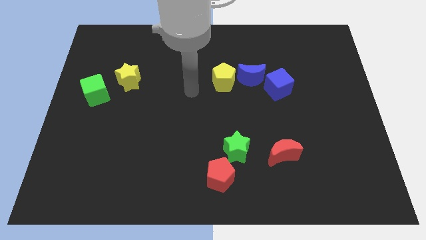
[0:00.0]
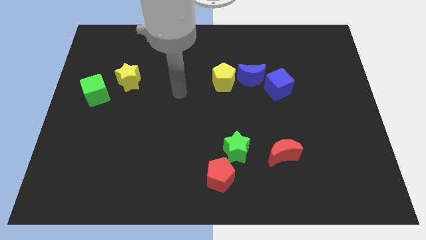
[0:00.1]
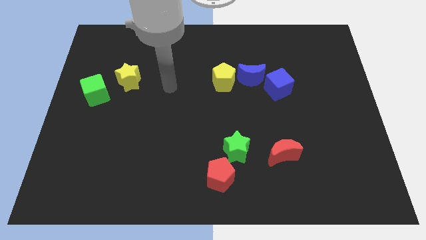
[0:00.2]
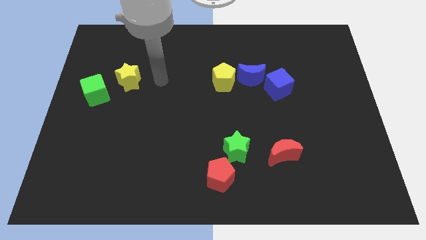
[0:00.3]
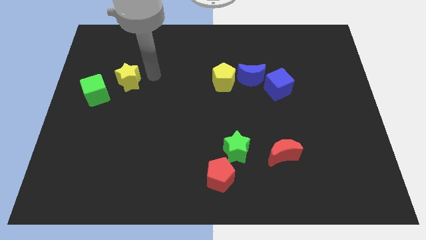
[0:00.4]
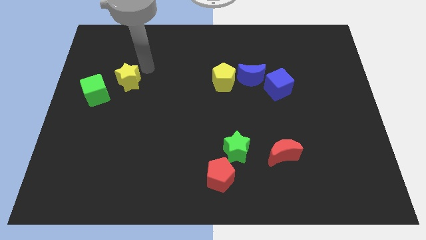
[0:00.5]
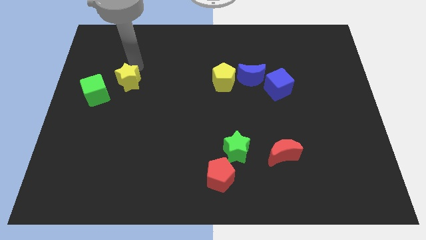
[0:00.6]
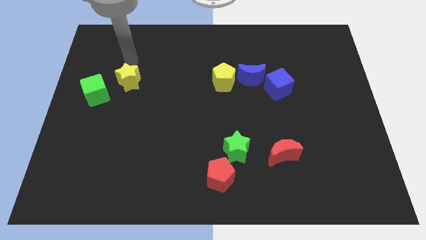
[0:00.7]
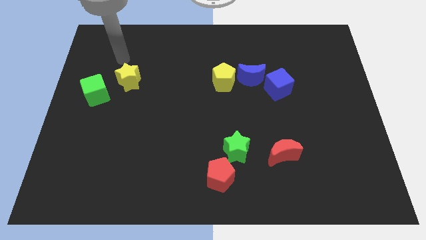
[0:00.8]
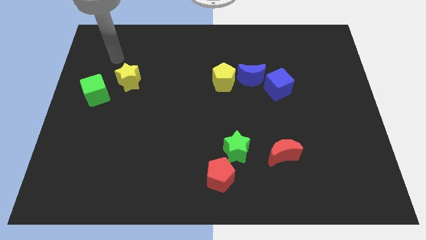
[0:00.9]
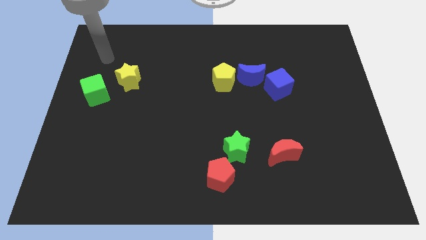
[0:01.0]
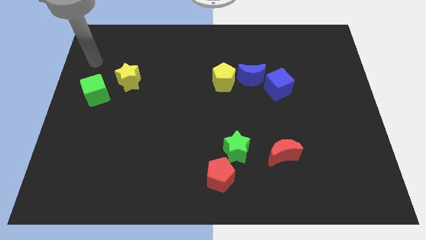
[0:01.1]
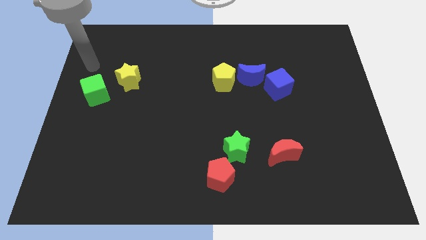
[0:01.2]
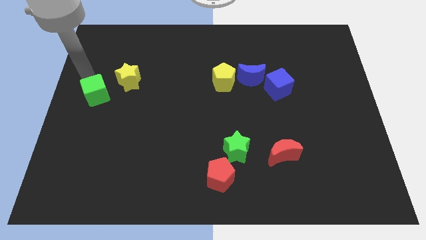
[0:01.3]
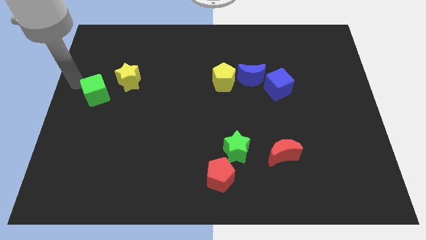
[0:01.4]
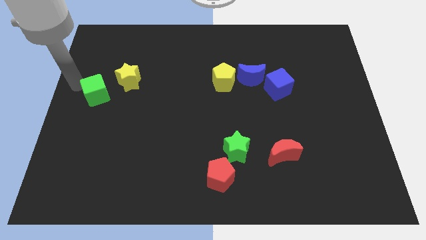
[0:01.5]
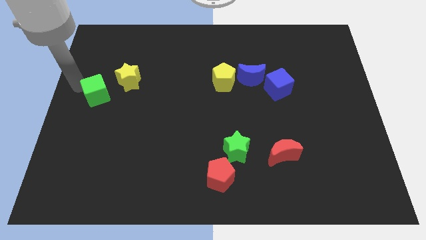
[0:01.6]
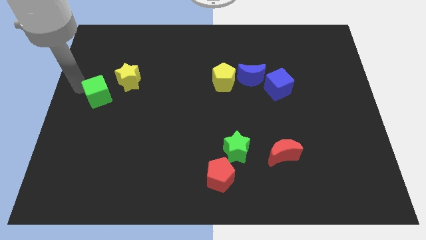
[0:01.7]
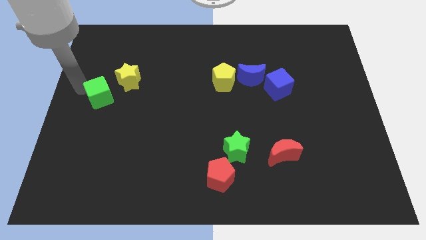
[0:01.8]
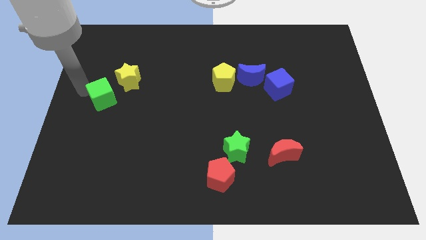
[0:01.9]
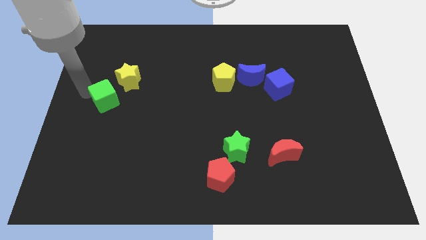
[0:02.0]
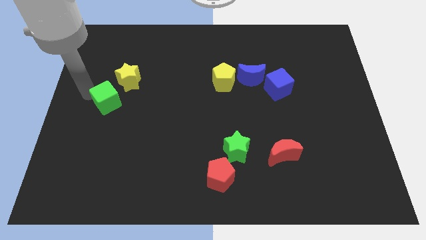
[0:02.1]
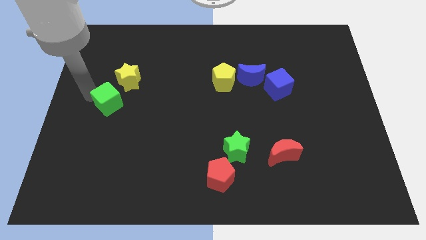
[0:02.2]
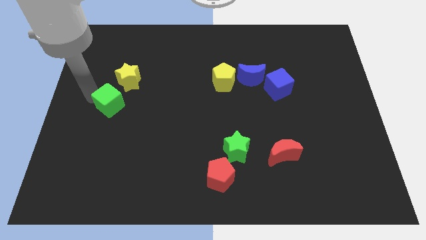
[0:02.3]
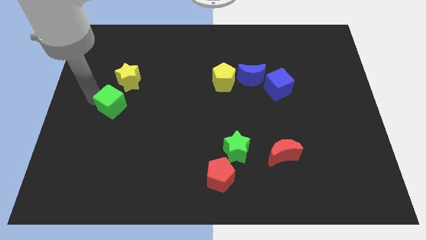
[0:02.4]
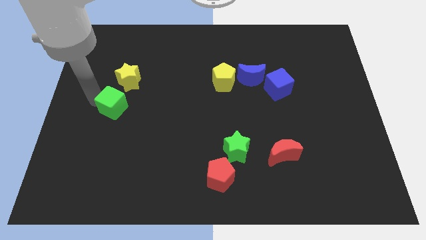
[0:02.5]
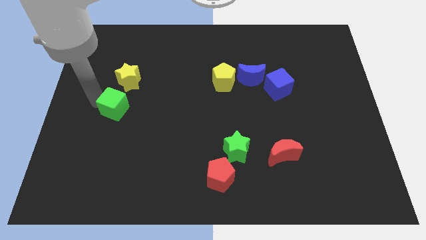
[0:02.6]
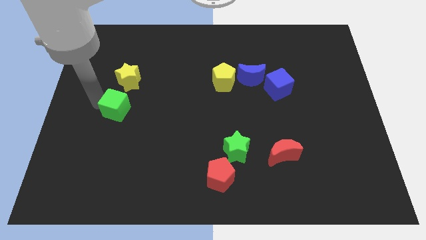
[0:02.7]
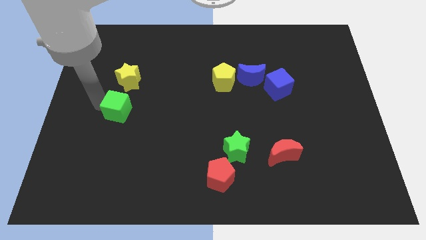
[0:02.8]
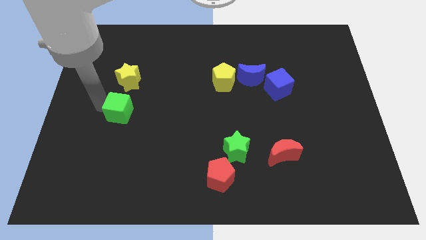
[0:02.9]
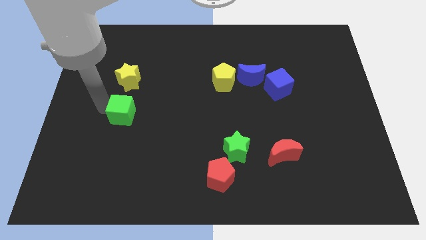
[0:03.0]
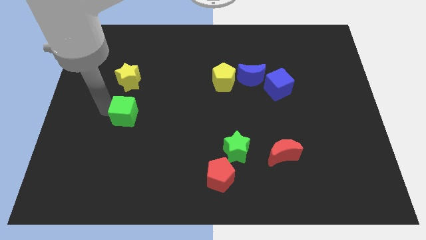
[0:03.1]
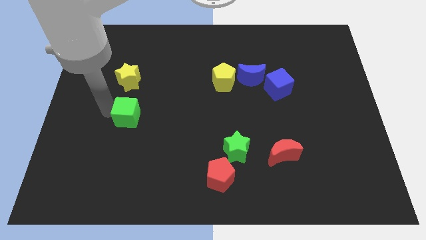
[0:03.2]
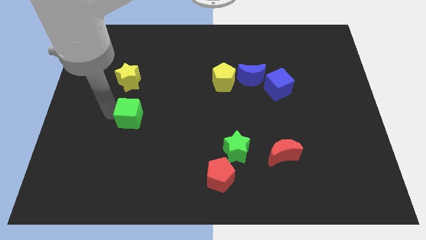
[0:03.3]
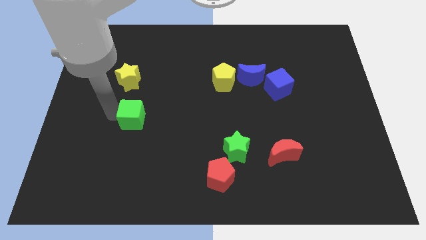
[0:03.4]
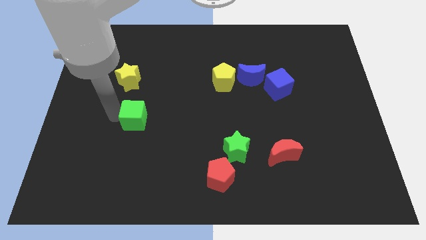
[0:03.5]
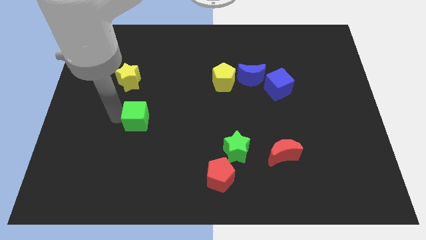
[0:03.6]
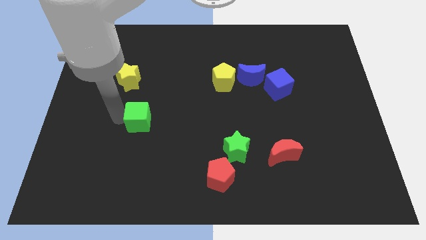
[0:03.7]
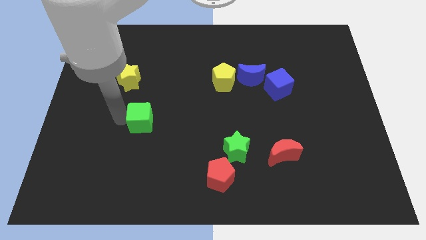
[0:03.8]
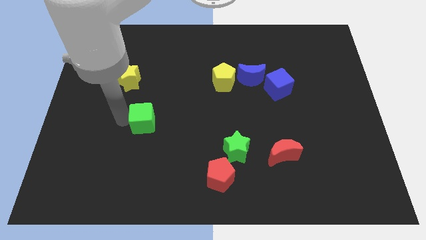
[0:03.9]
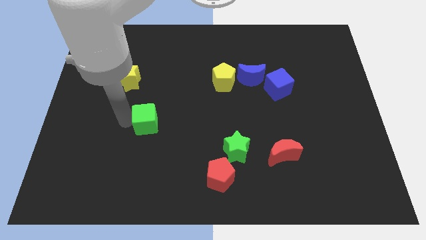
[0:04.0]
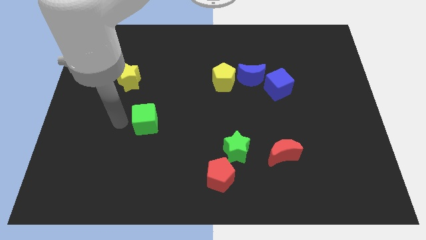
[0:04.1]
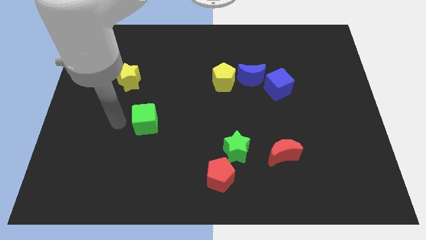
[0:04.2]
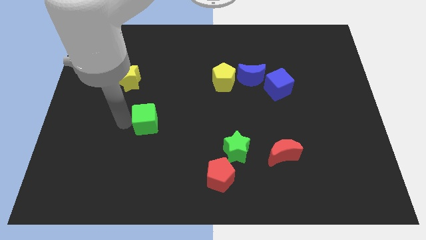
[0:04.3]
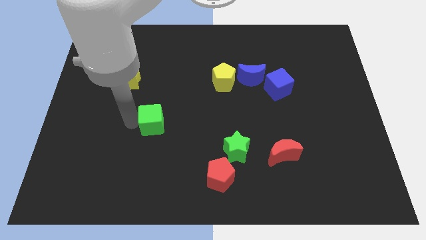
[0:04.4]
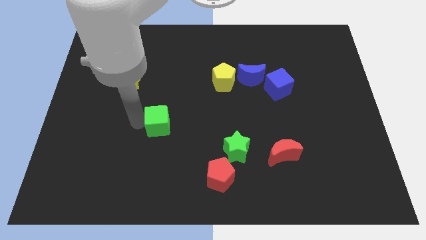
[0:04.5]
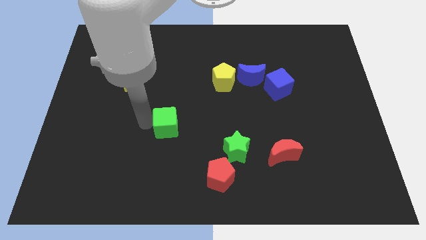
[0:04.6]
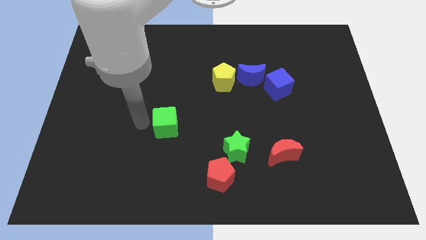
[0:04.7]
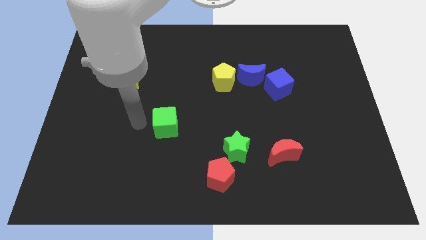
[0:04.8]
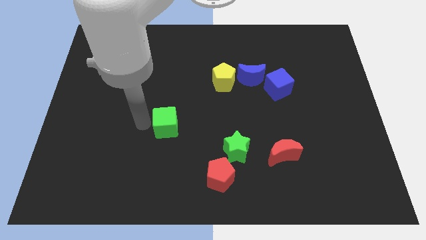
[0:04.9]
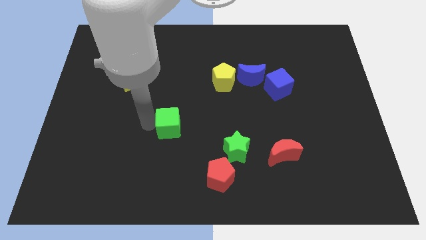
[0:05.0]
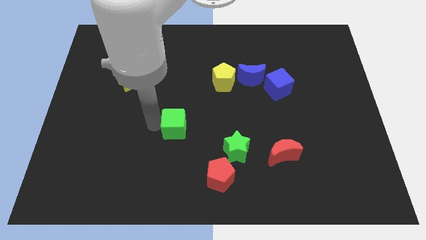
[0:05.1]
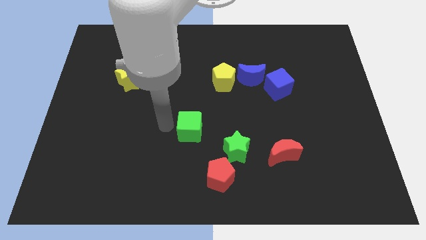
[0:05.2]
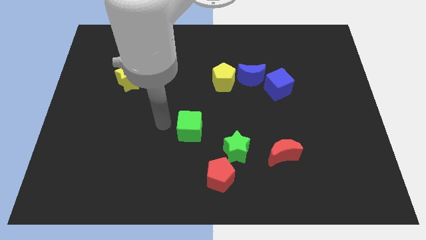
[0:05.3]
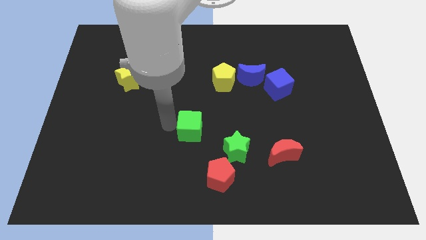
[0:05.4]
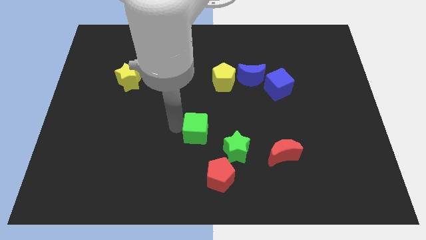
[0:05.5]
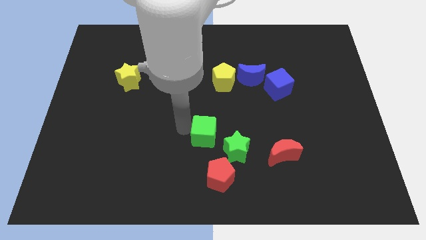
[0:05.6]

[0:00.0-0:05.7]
put the green cube above the red pentagon

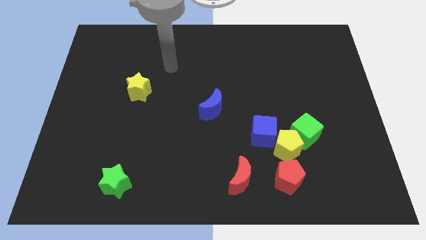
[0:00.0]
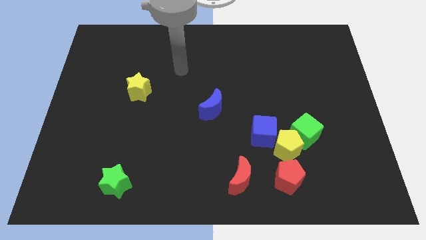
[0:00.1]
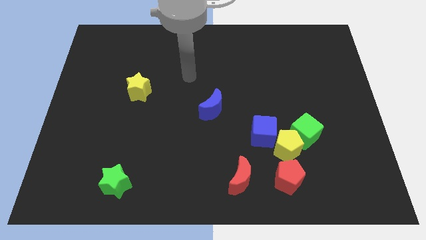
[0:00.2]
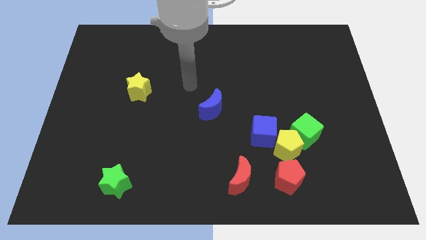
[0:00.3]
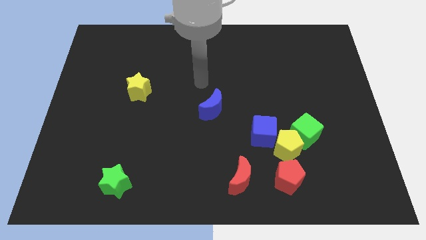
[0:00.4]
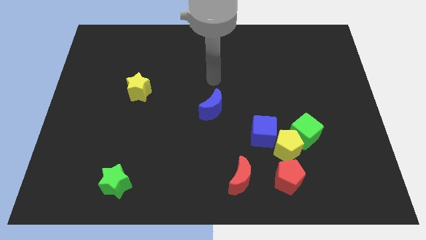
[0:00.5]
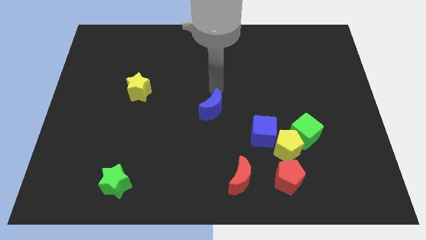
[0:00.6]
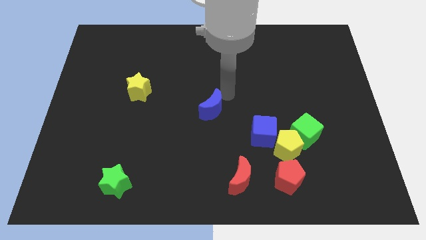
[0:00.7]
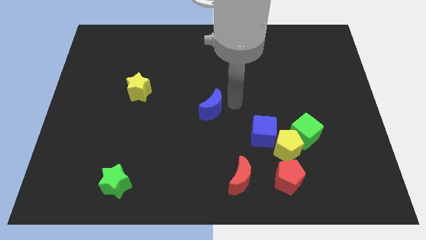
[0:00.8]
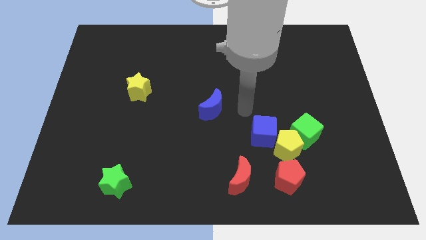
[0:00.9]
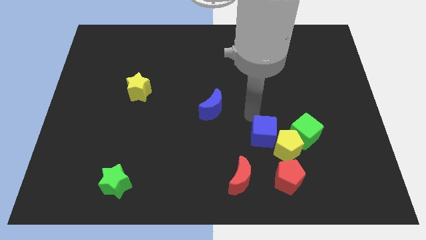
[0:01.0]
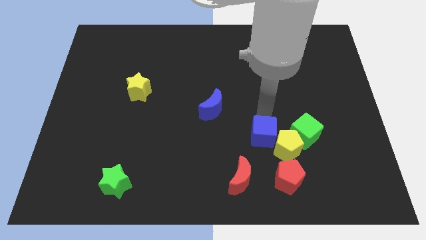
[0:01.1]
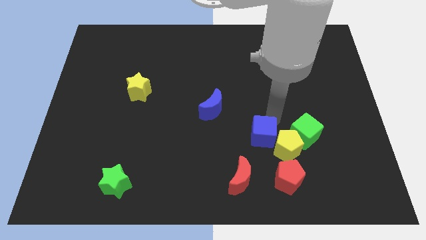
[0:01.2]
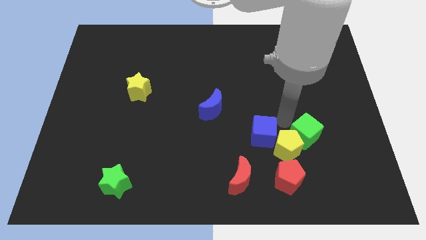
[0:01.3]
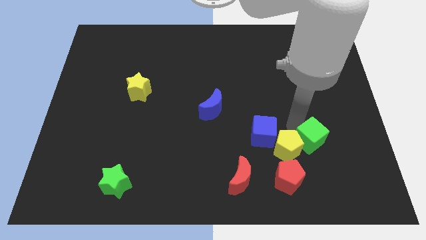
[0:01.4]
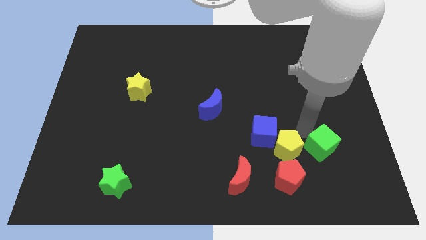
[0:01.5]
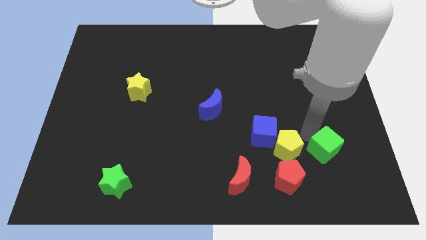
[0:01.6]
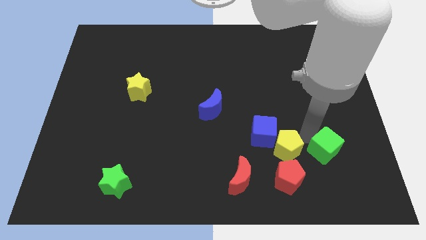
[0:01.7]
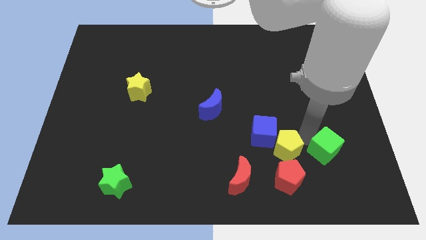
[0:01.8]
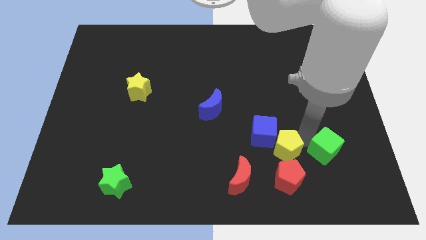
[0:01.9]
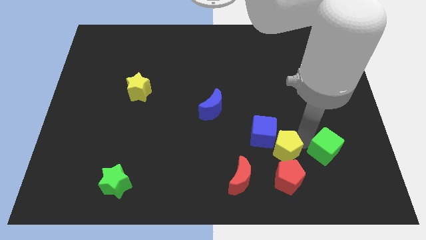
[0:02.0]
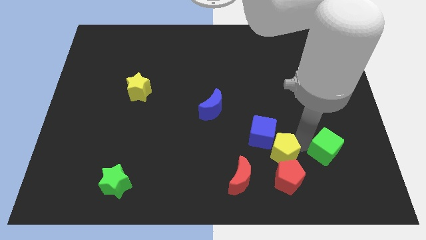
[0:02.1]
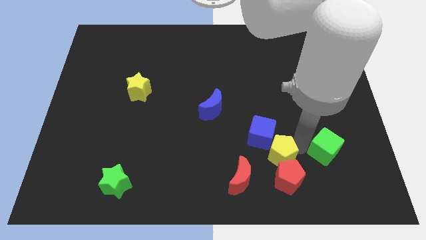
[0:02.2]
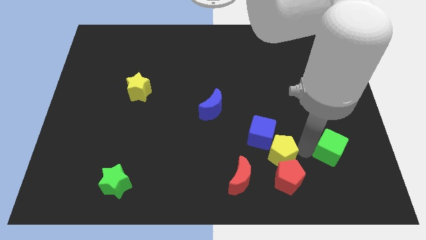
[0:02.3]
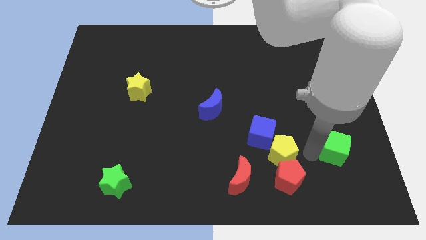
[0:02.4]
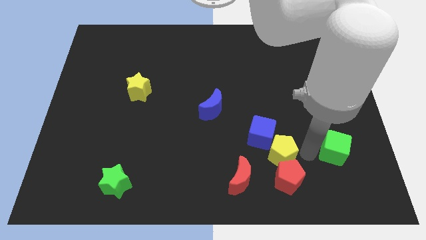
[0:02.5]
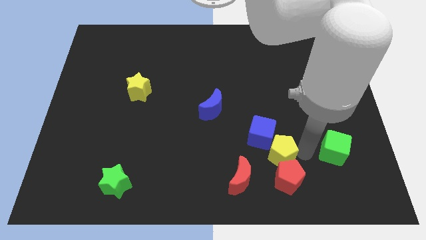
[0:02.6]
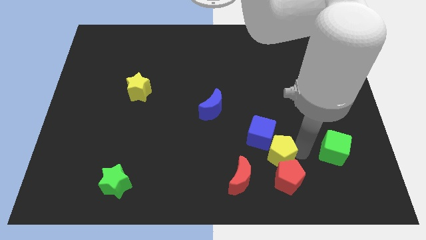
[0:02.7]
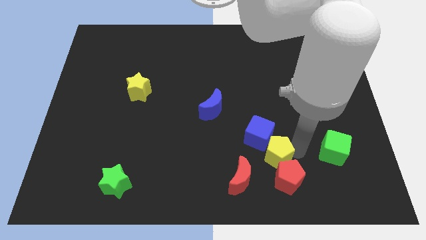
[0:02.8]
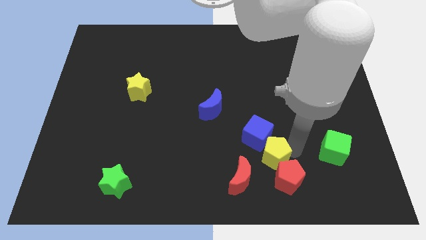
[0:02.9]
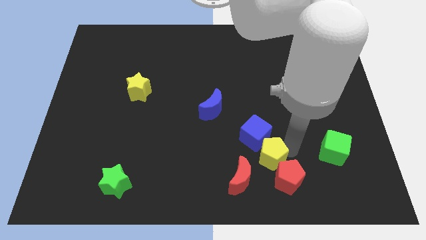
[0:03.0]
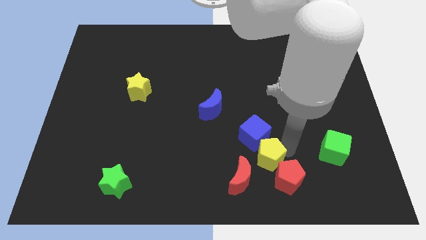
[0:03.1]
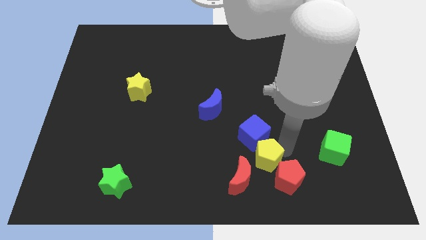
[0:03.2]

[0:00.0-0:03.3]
push the yellow pentagon to the left of the red pentagon
